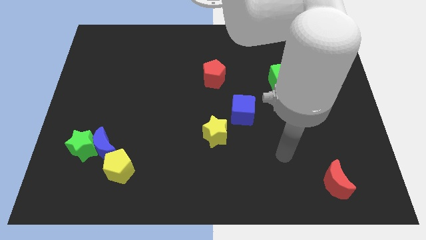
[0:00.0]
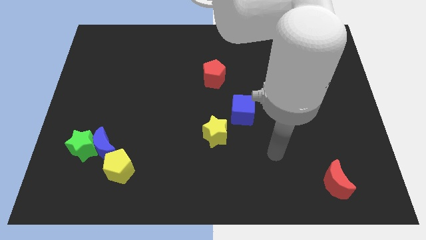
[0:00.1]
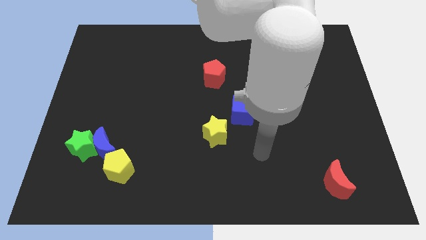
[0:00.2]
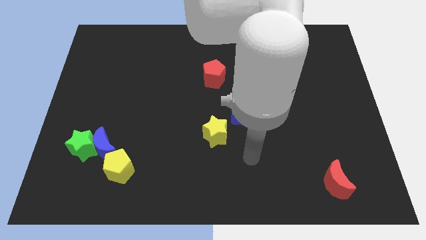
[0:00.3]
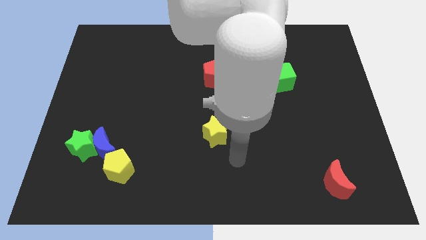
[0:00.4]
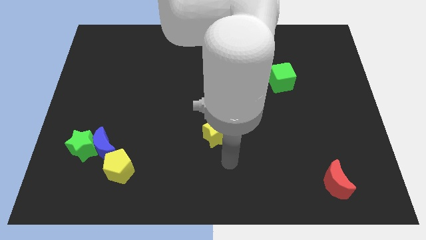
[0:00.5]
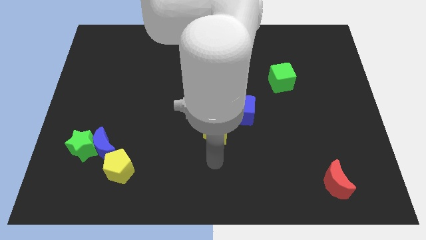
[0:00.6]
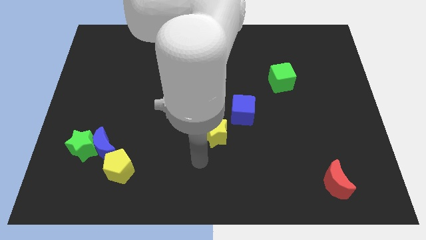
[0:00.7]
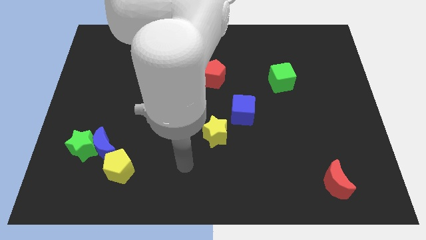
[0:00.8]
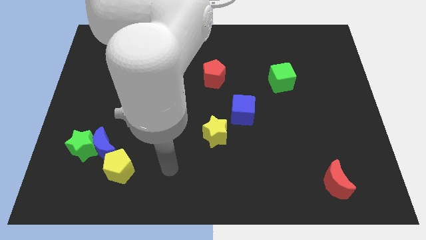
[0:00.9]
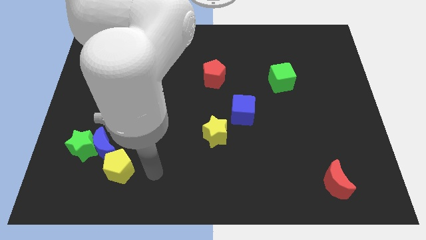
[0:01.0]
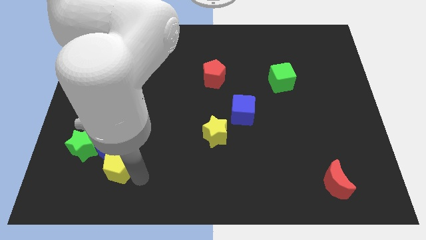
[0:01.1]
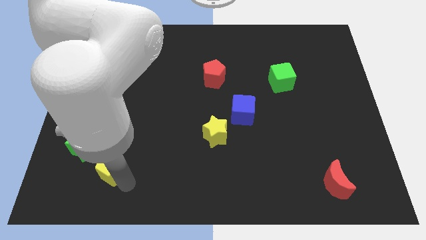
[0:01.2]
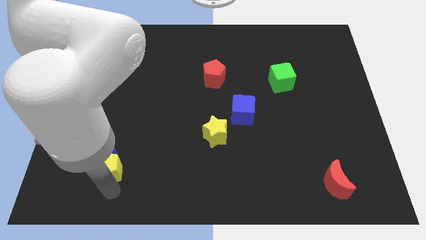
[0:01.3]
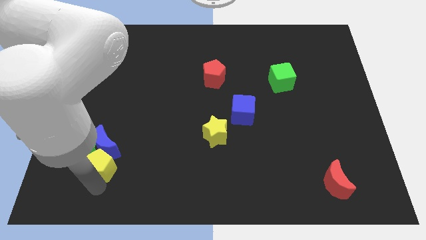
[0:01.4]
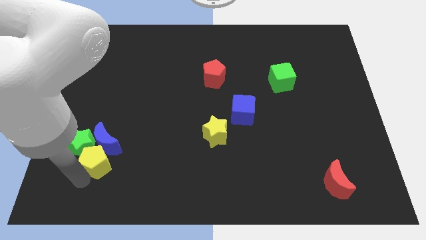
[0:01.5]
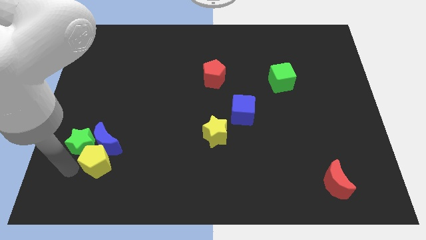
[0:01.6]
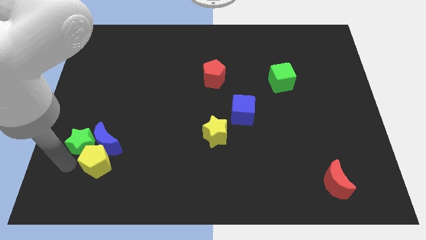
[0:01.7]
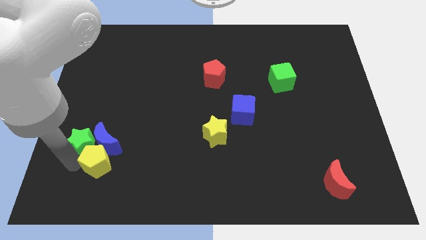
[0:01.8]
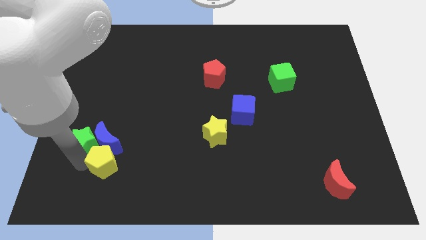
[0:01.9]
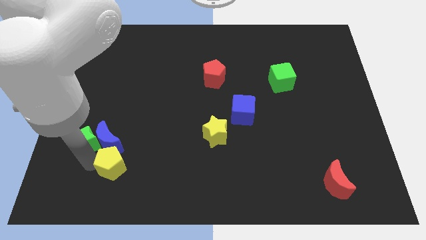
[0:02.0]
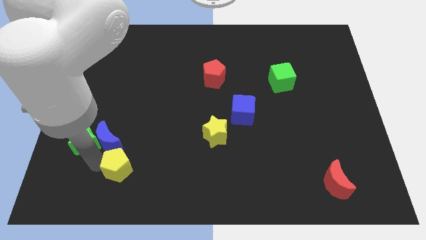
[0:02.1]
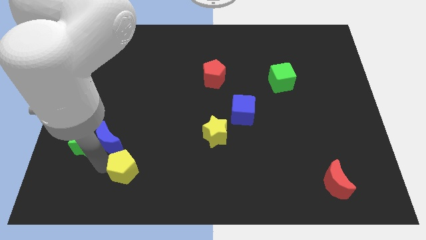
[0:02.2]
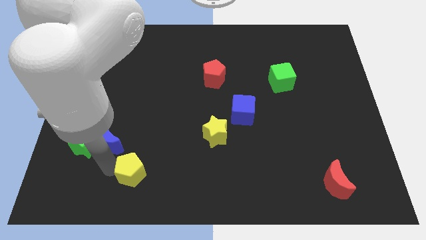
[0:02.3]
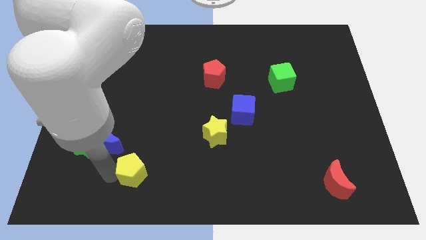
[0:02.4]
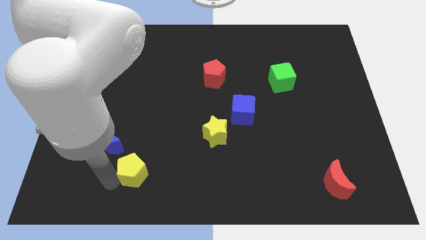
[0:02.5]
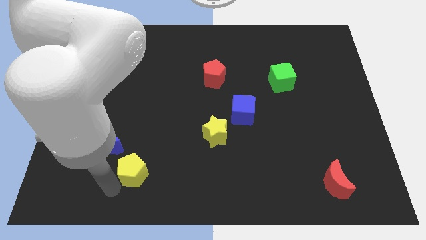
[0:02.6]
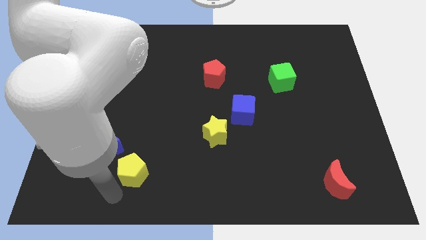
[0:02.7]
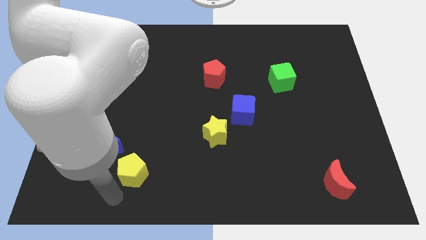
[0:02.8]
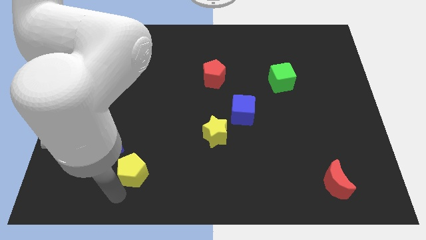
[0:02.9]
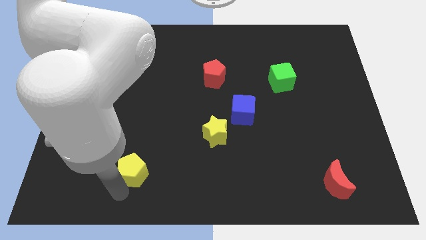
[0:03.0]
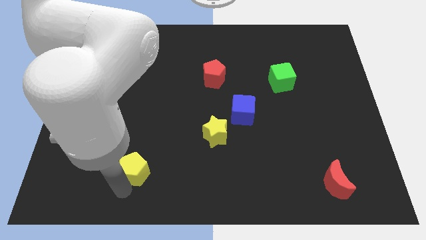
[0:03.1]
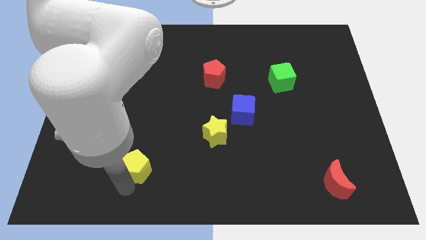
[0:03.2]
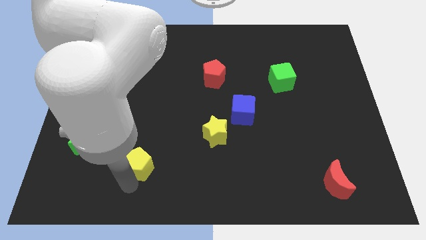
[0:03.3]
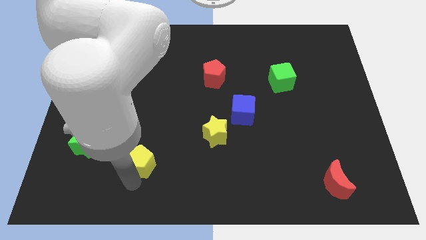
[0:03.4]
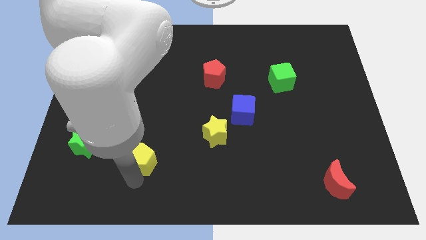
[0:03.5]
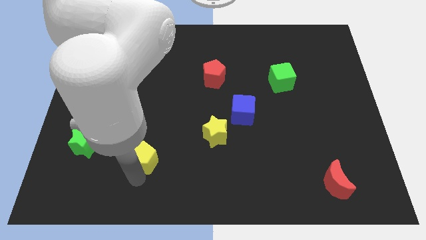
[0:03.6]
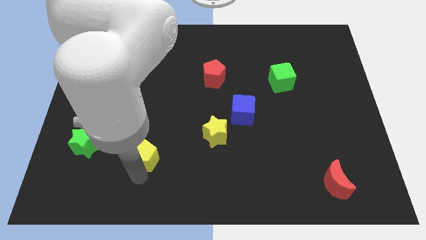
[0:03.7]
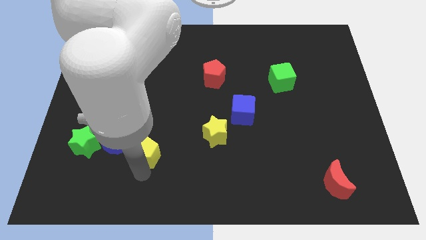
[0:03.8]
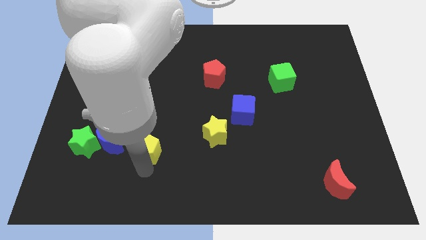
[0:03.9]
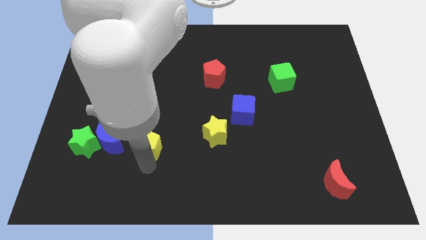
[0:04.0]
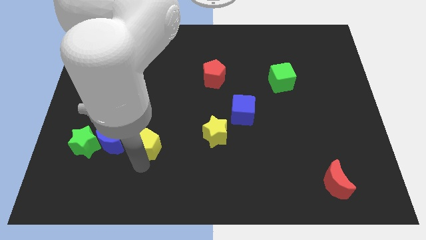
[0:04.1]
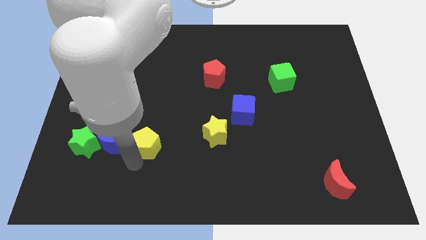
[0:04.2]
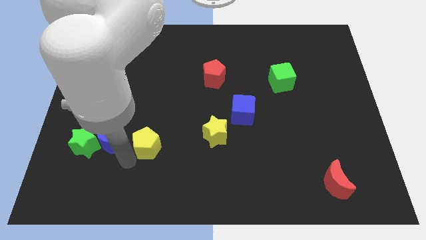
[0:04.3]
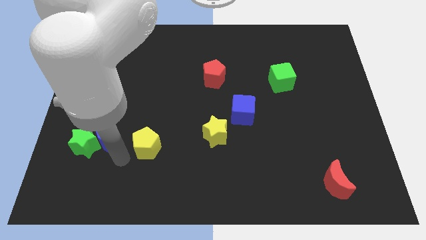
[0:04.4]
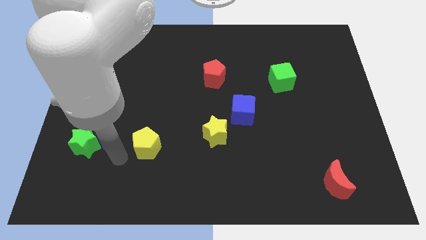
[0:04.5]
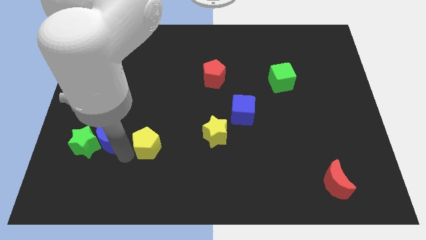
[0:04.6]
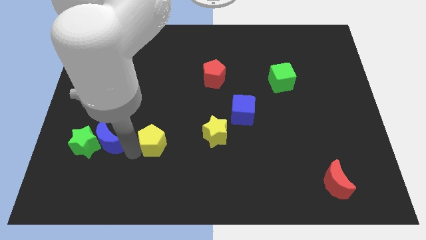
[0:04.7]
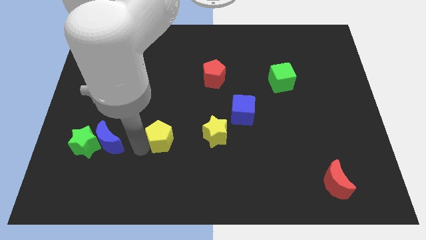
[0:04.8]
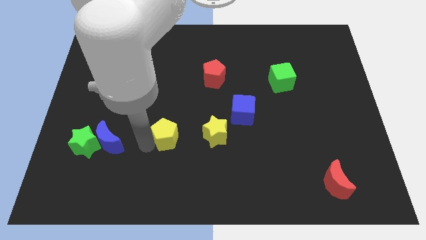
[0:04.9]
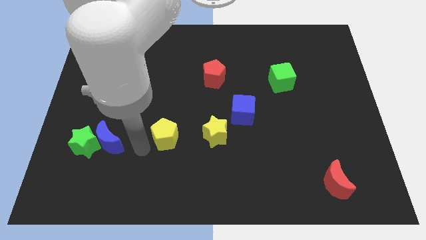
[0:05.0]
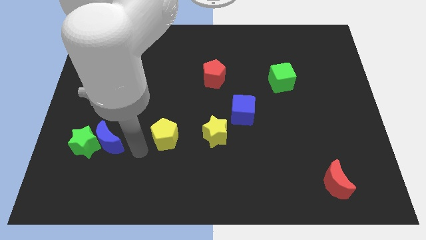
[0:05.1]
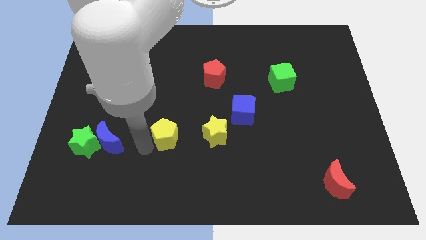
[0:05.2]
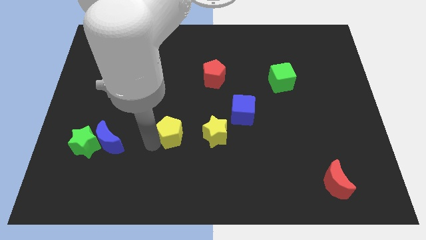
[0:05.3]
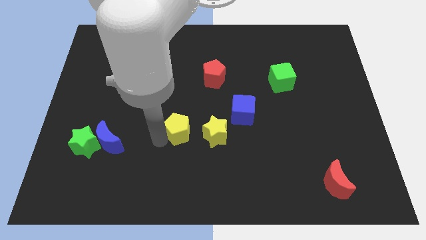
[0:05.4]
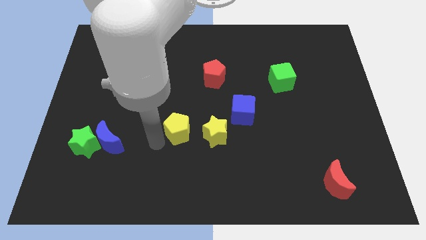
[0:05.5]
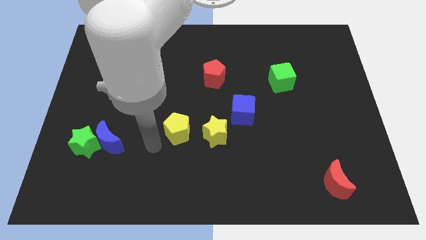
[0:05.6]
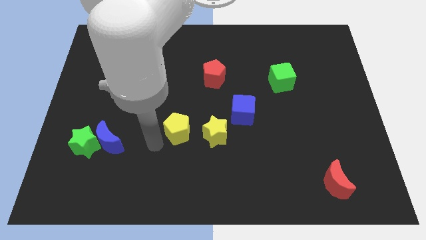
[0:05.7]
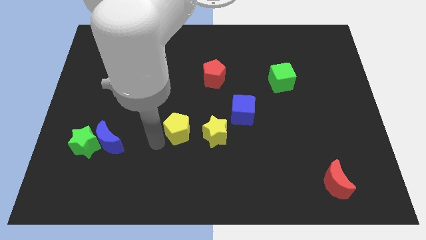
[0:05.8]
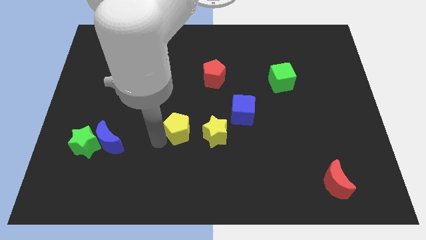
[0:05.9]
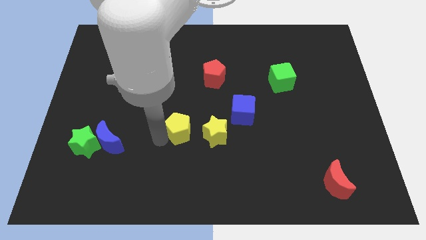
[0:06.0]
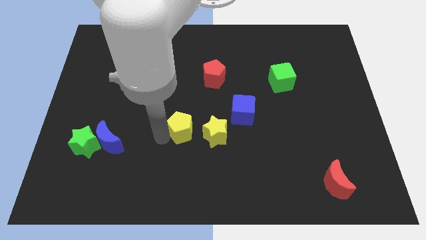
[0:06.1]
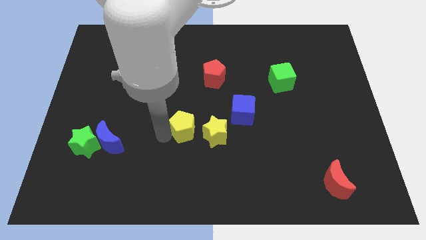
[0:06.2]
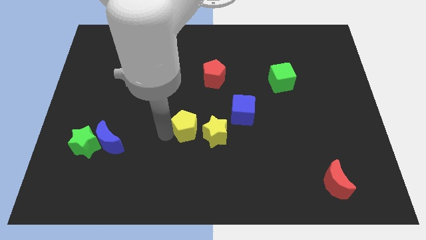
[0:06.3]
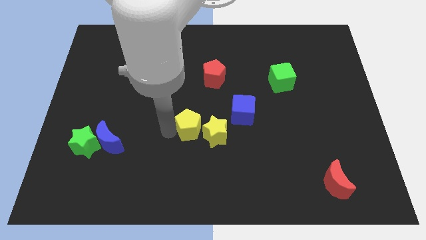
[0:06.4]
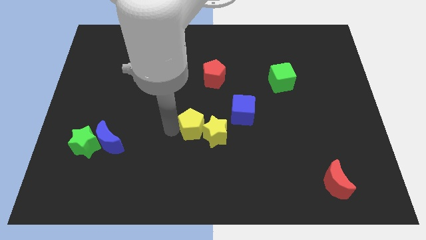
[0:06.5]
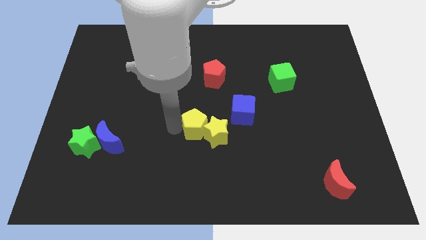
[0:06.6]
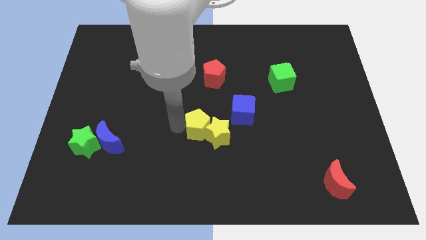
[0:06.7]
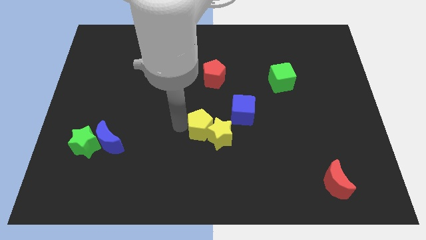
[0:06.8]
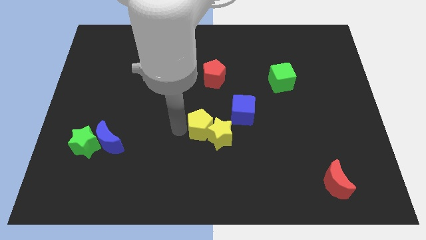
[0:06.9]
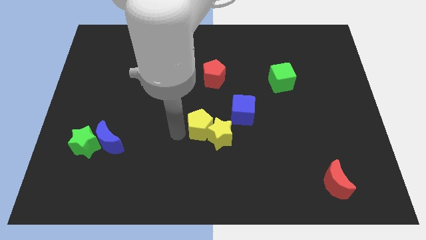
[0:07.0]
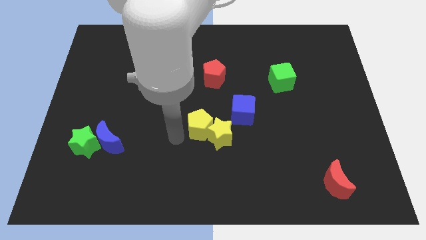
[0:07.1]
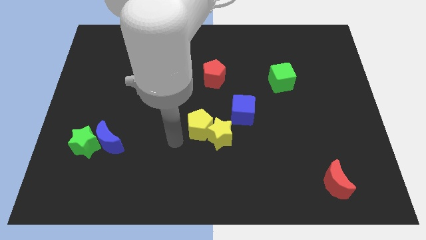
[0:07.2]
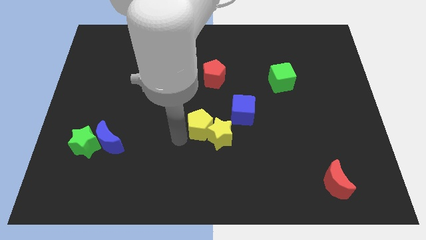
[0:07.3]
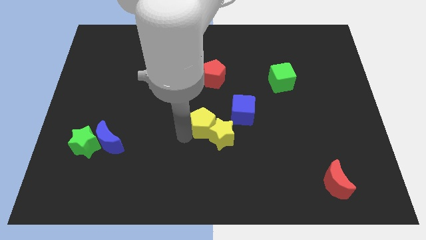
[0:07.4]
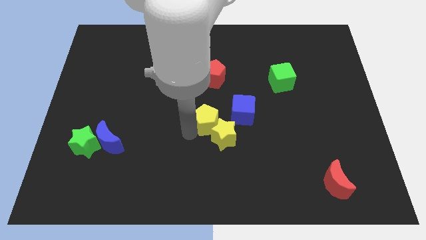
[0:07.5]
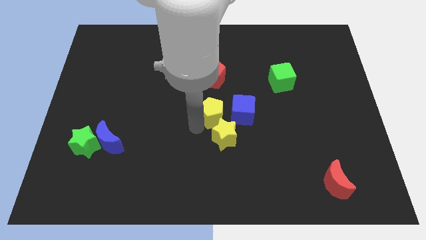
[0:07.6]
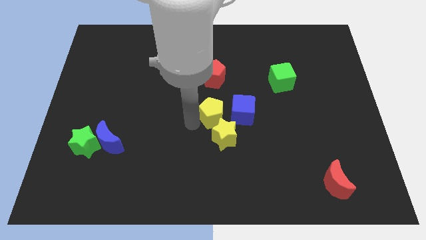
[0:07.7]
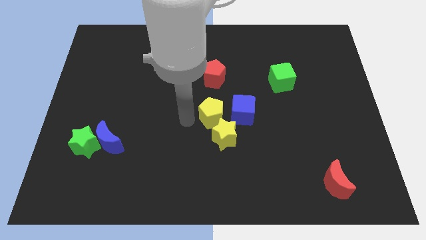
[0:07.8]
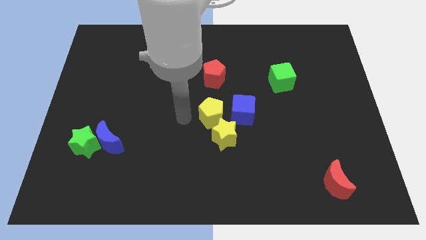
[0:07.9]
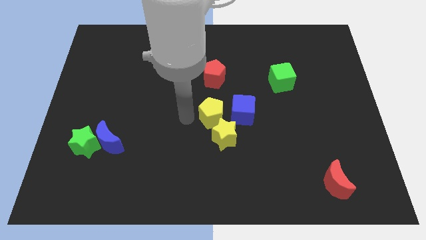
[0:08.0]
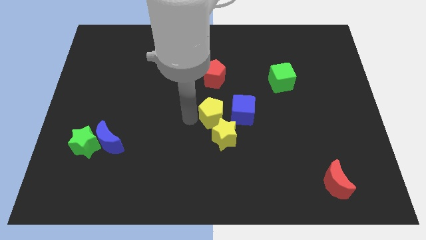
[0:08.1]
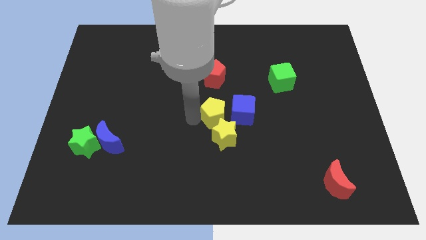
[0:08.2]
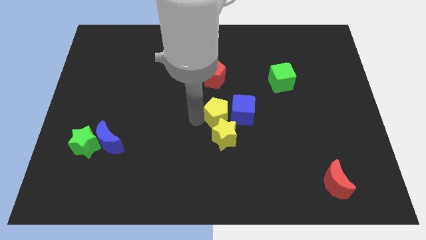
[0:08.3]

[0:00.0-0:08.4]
push the yellow pentagon towards the blue cube
